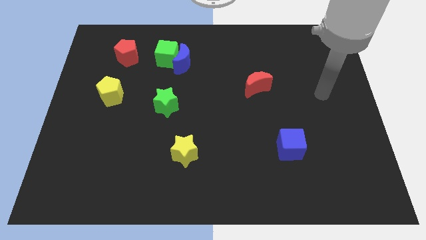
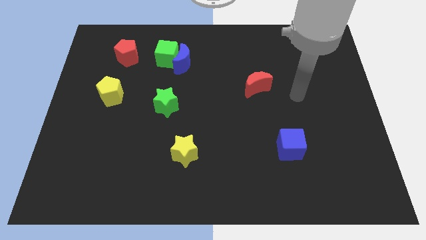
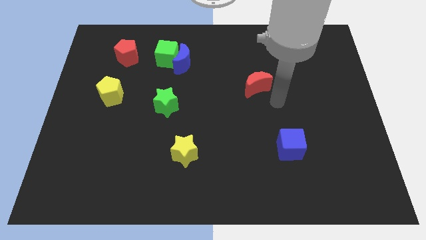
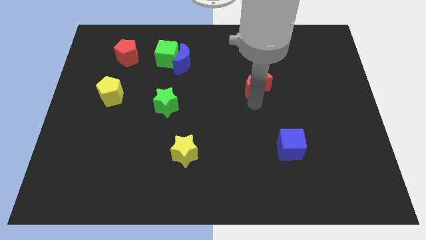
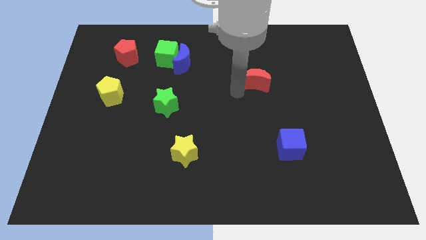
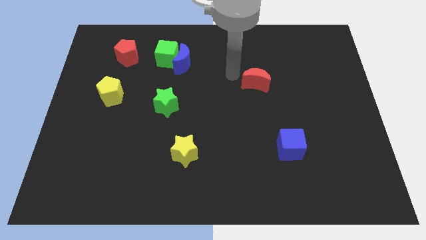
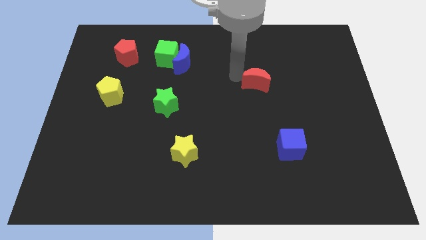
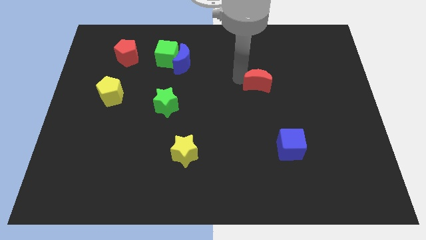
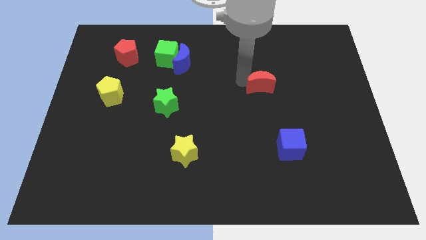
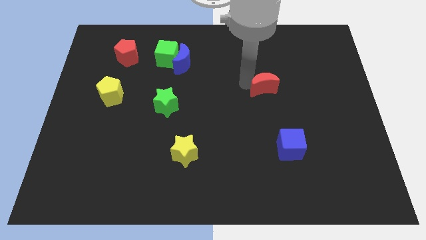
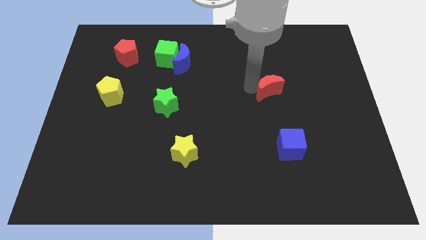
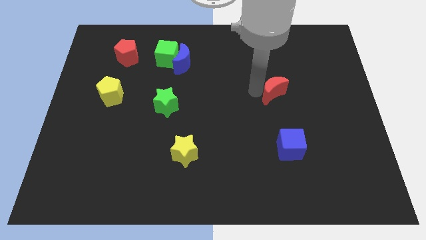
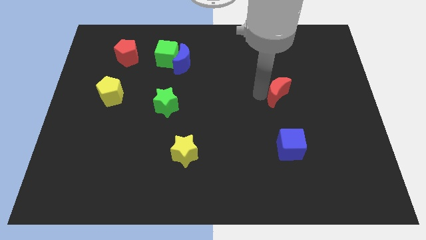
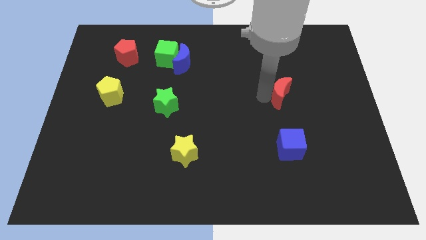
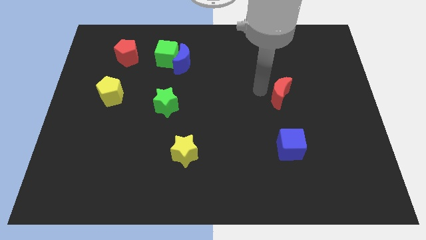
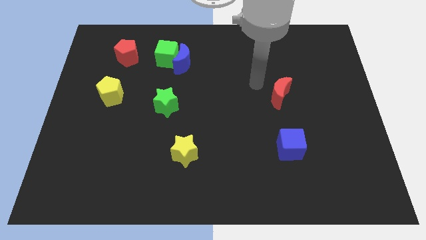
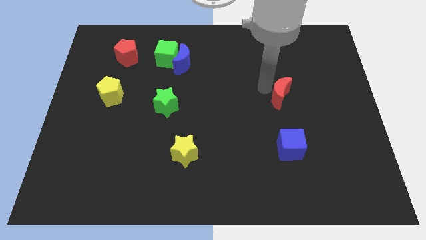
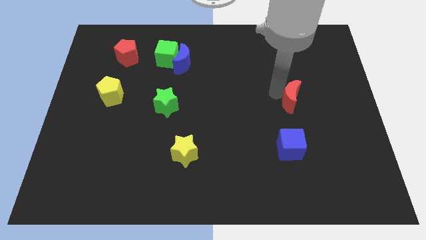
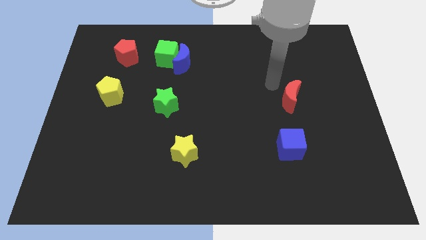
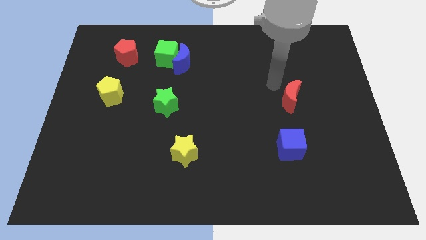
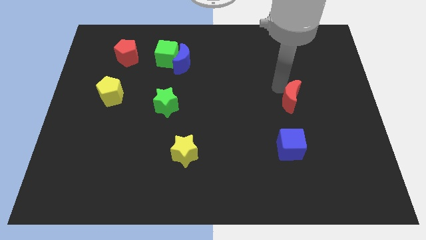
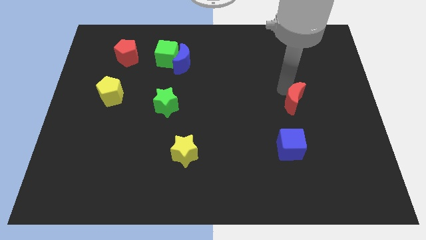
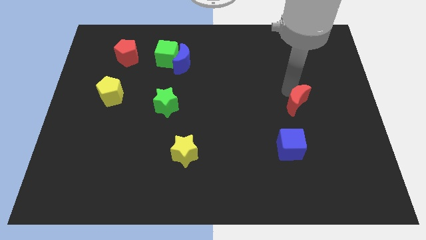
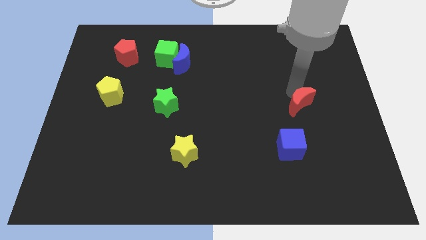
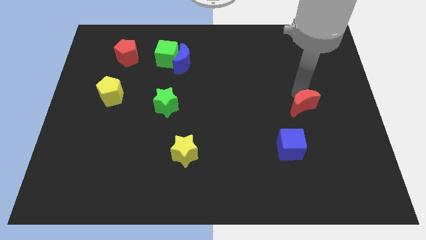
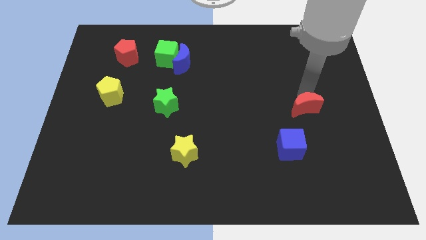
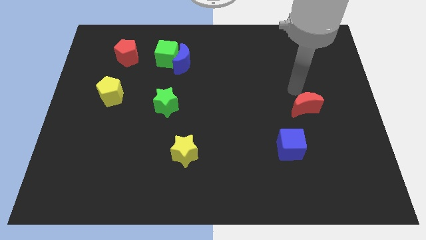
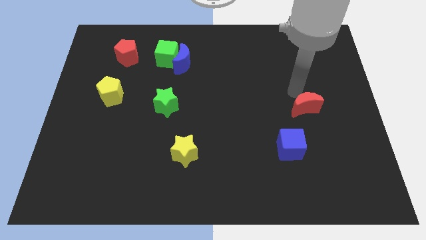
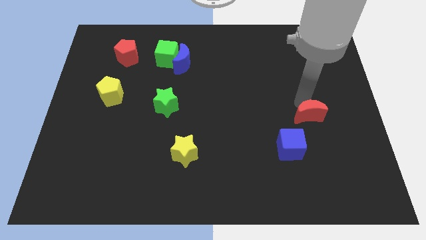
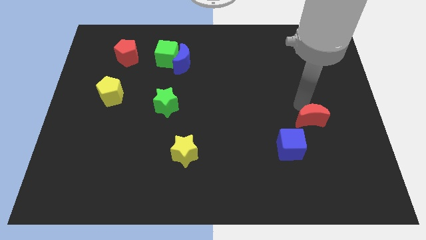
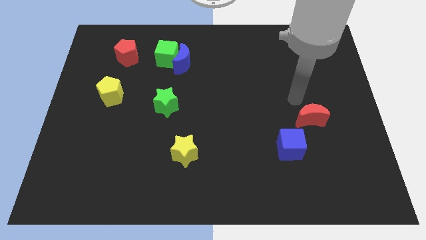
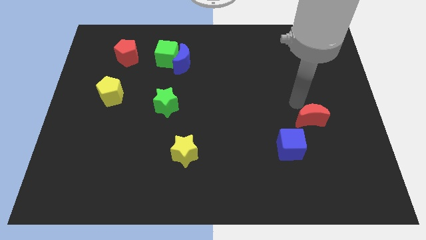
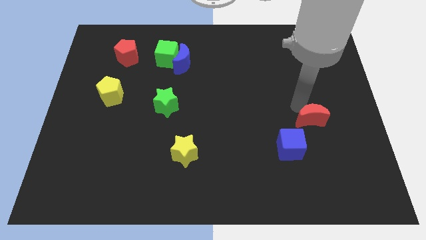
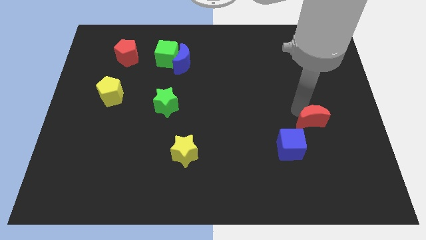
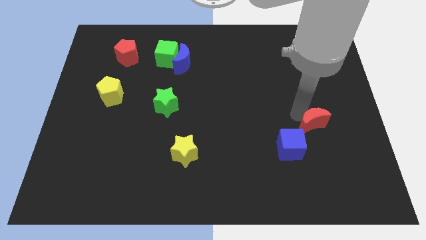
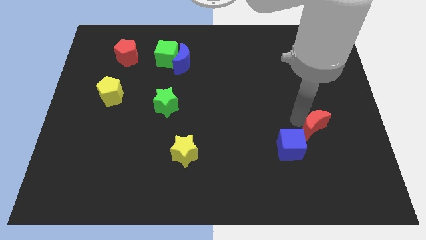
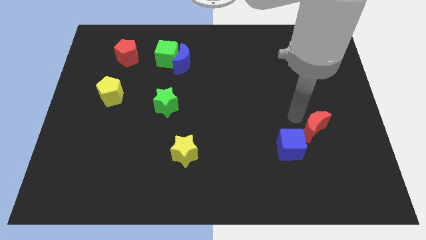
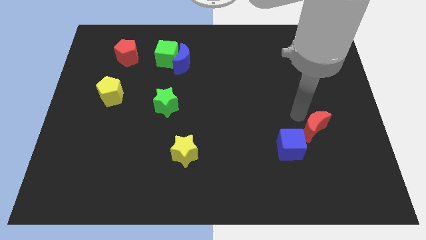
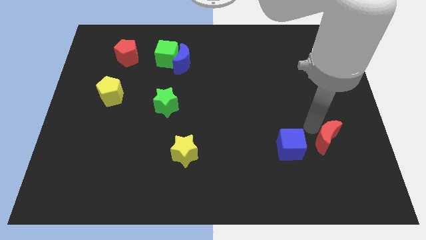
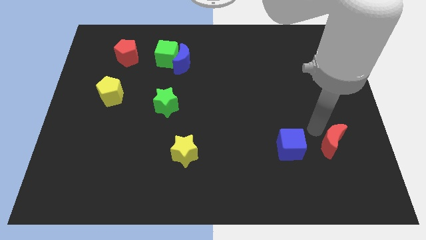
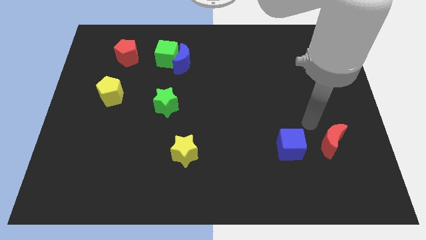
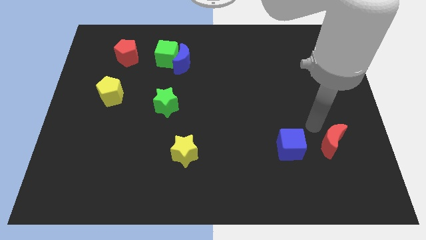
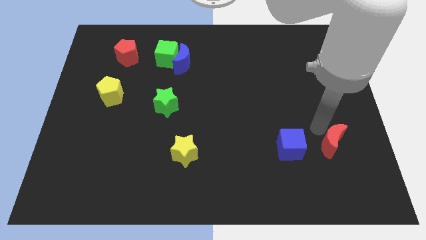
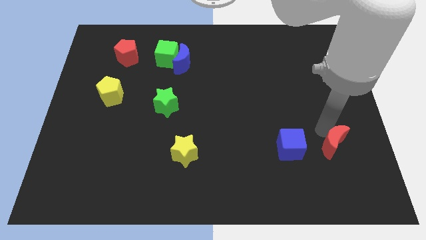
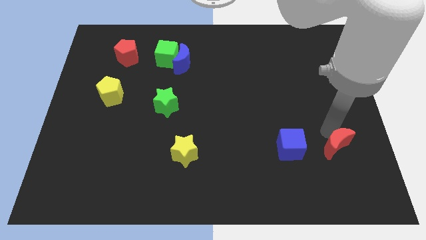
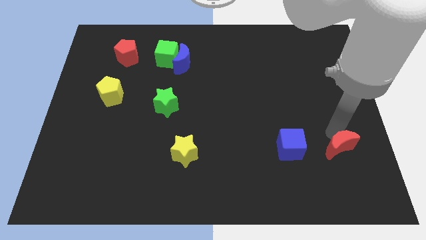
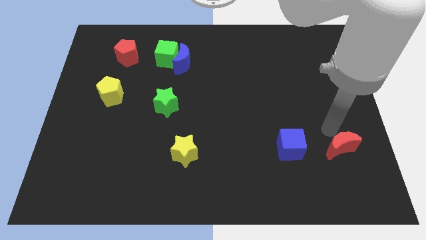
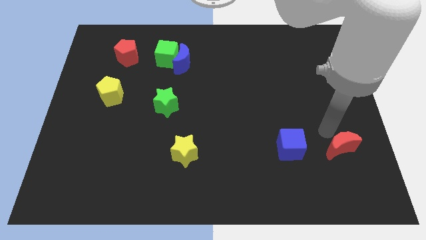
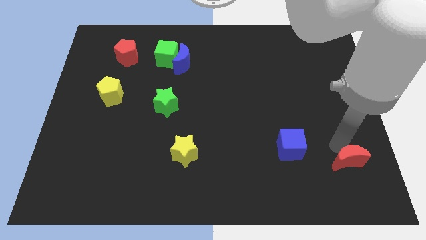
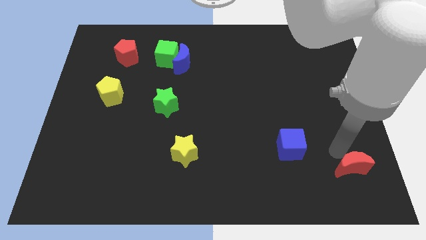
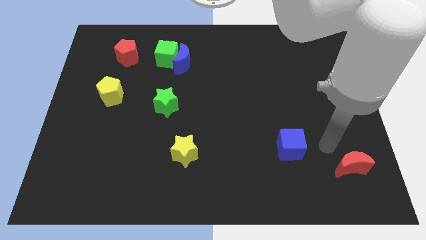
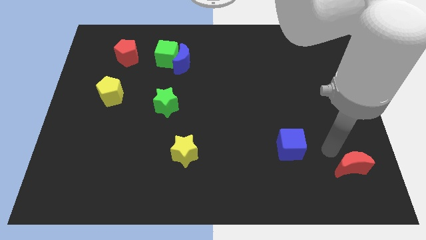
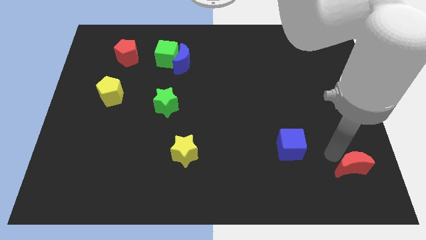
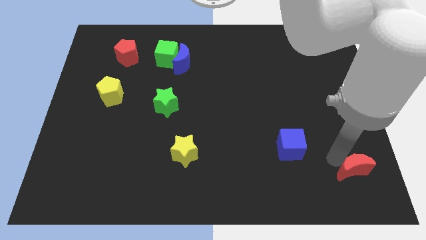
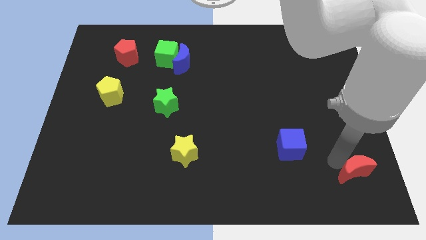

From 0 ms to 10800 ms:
slide the red moon to the bottom right corner
